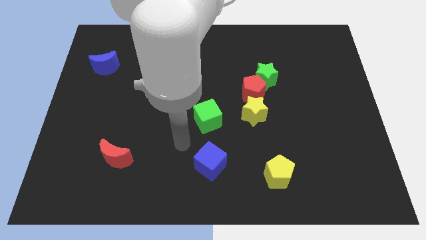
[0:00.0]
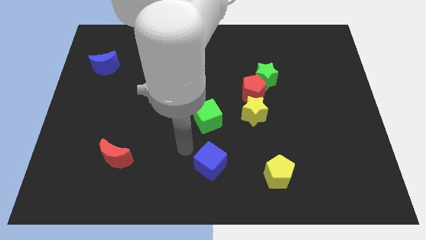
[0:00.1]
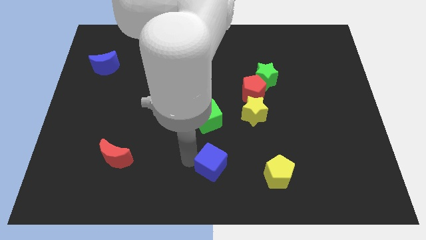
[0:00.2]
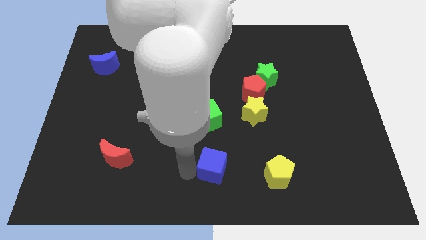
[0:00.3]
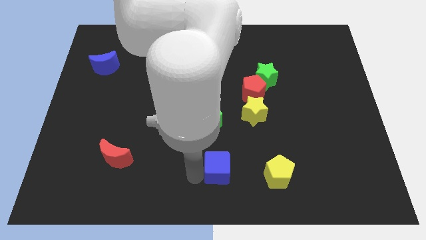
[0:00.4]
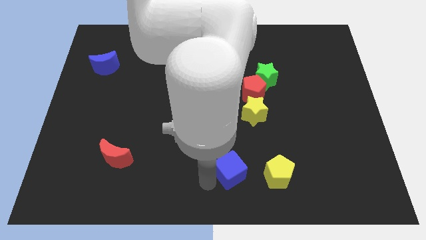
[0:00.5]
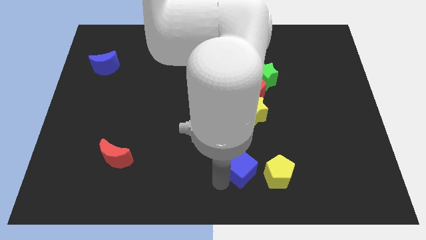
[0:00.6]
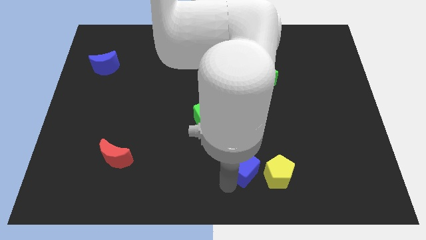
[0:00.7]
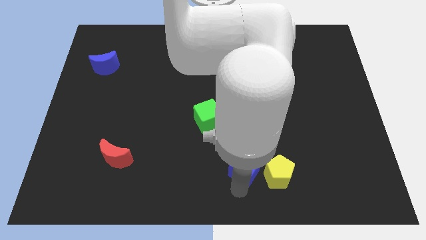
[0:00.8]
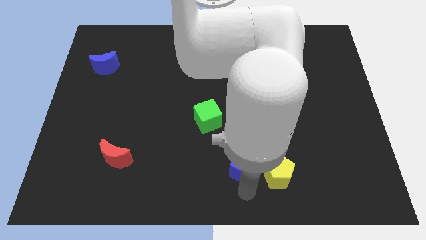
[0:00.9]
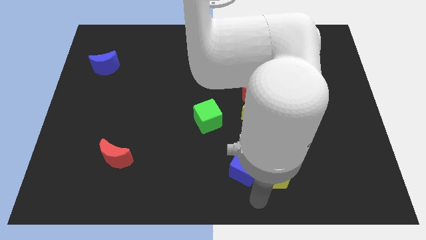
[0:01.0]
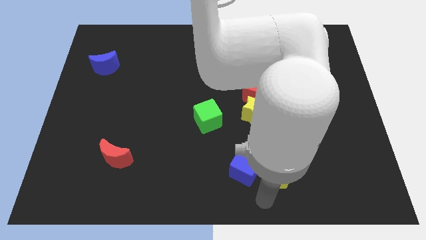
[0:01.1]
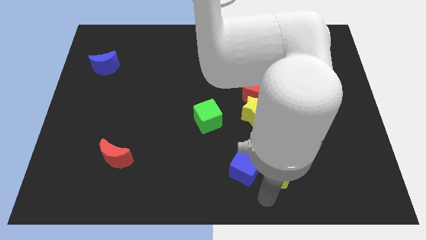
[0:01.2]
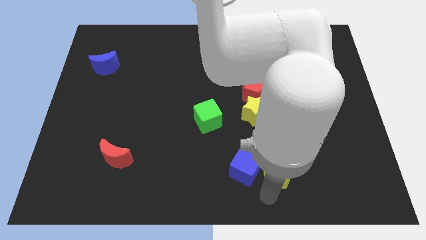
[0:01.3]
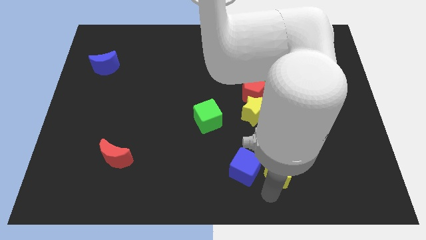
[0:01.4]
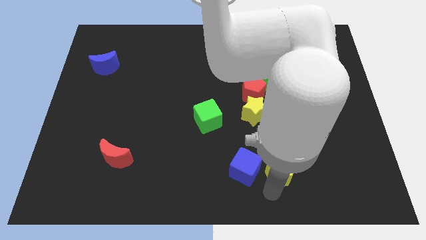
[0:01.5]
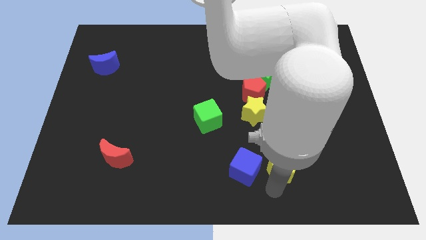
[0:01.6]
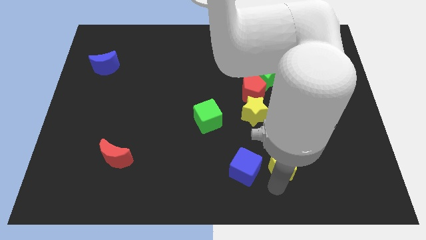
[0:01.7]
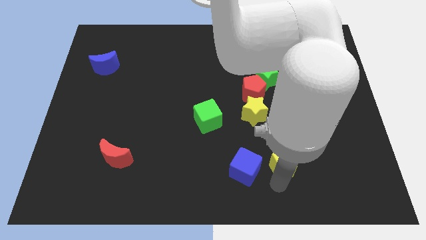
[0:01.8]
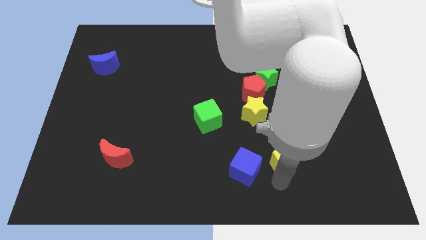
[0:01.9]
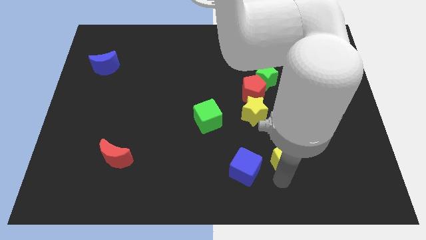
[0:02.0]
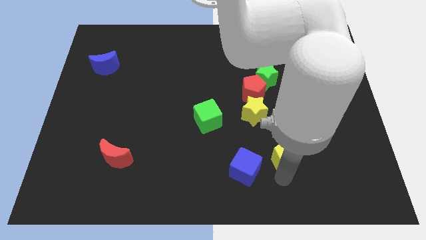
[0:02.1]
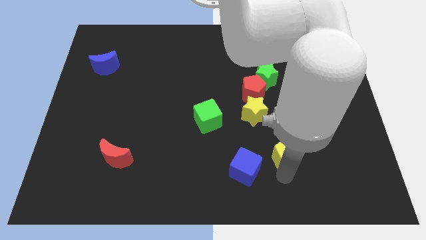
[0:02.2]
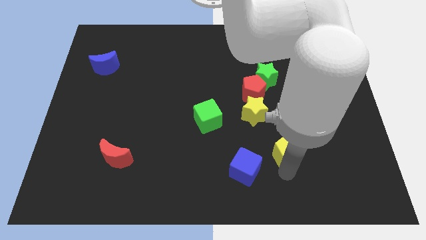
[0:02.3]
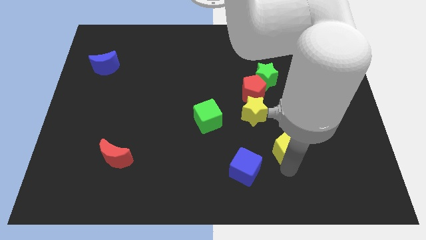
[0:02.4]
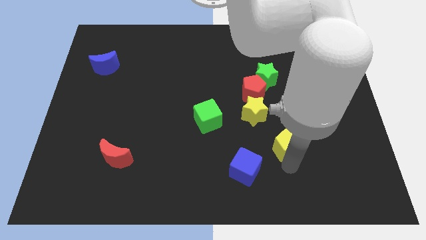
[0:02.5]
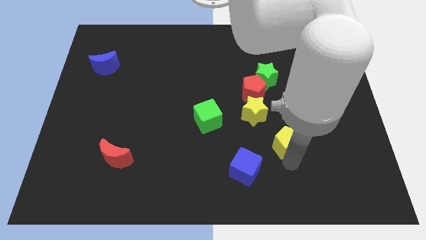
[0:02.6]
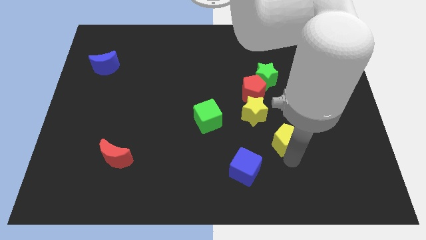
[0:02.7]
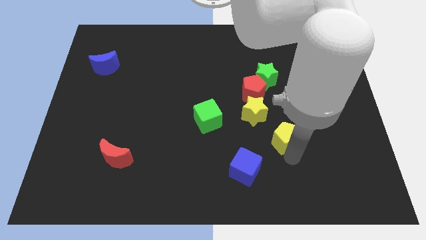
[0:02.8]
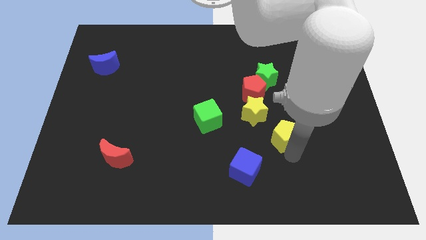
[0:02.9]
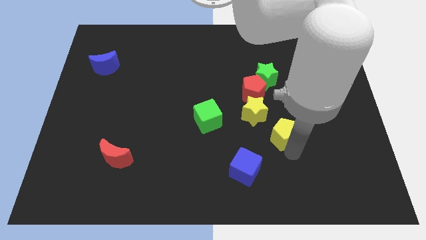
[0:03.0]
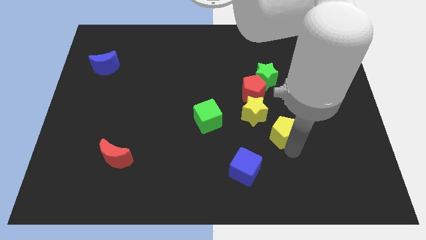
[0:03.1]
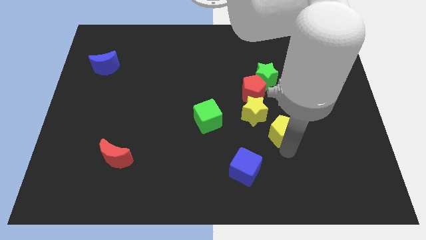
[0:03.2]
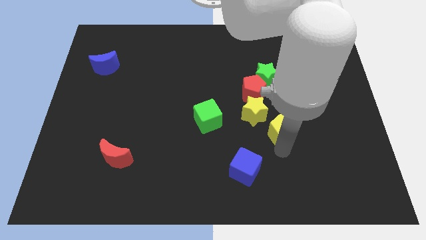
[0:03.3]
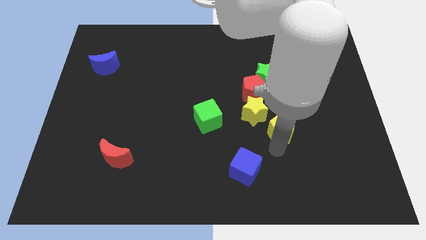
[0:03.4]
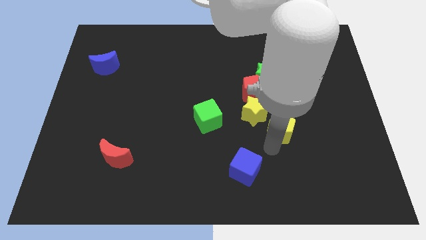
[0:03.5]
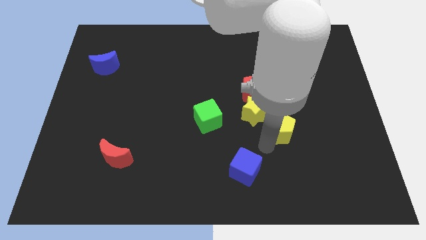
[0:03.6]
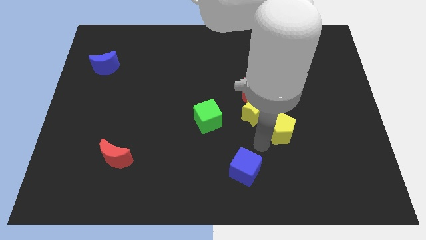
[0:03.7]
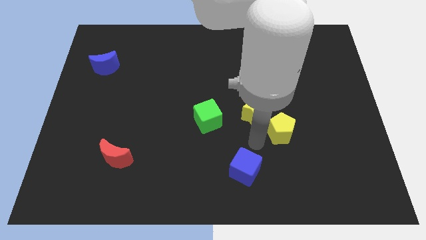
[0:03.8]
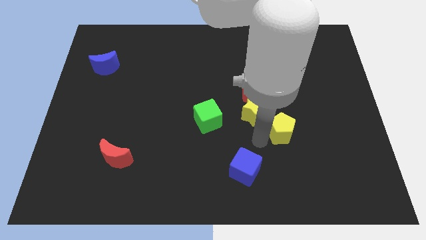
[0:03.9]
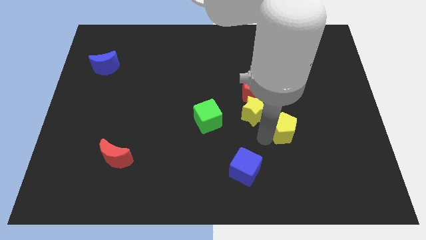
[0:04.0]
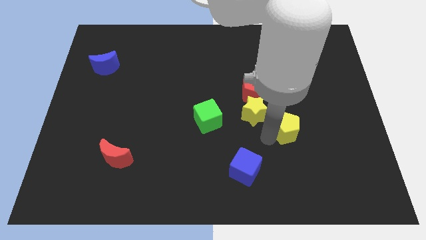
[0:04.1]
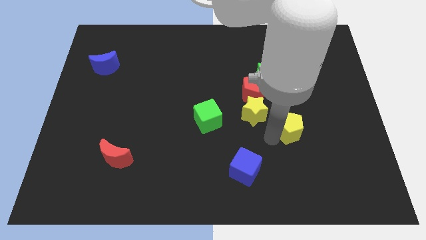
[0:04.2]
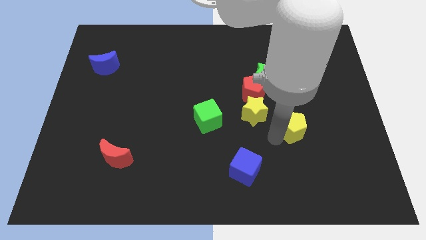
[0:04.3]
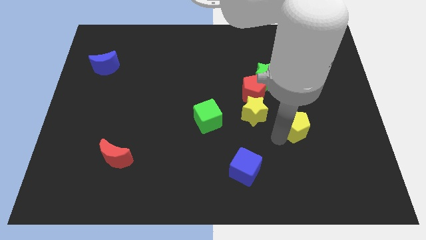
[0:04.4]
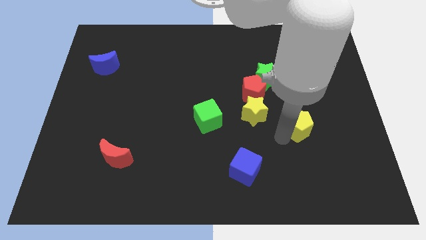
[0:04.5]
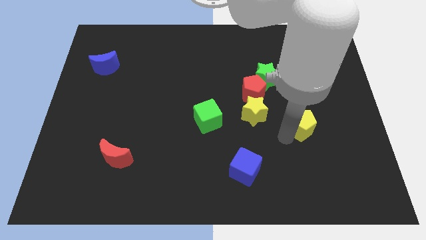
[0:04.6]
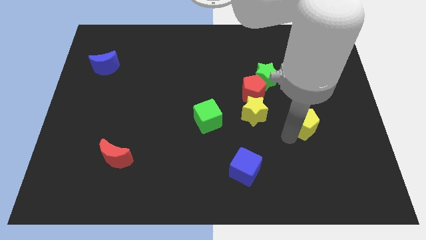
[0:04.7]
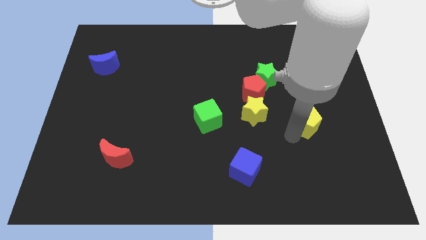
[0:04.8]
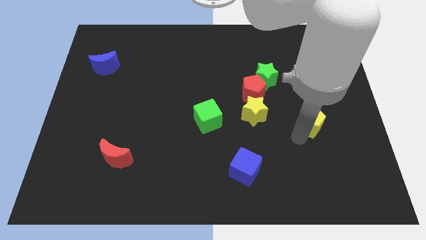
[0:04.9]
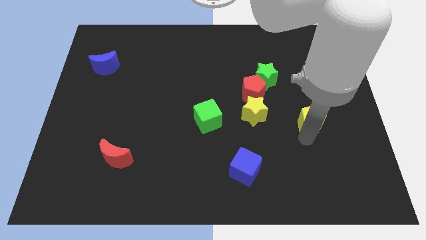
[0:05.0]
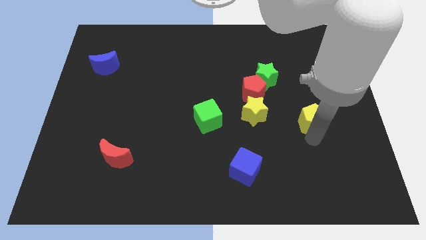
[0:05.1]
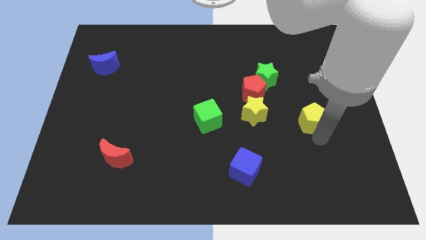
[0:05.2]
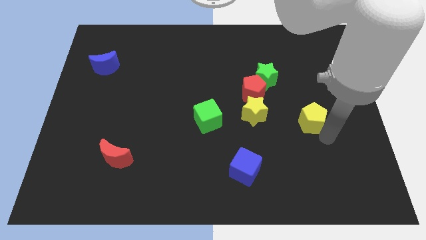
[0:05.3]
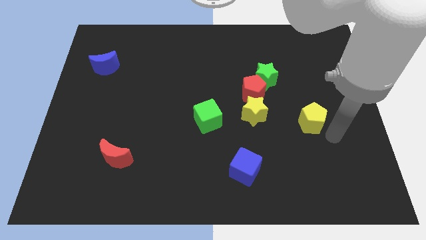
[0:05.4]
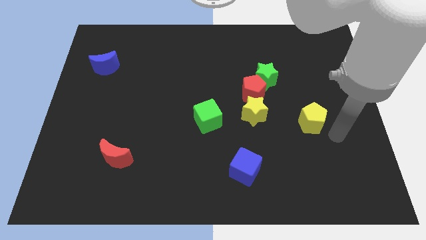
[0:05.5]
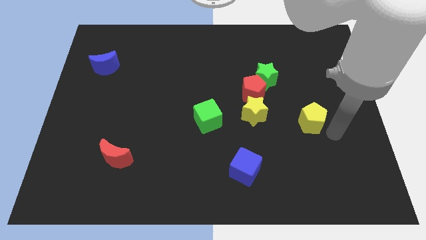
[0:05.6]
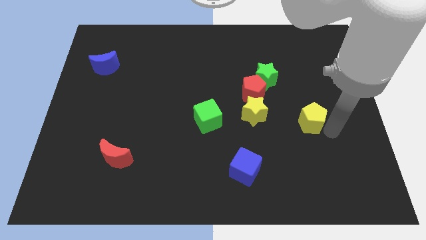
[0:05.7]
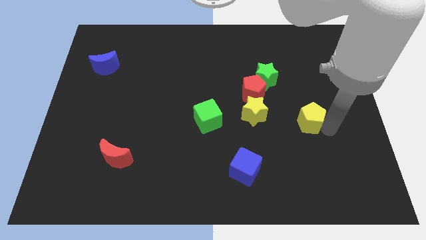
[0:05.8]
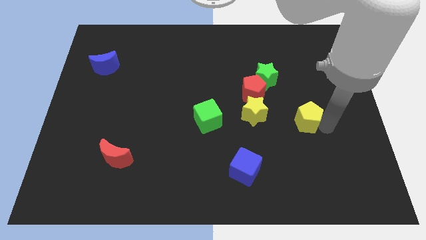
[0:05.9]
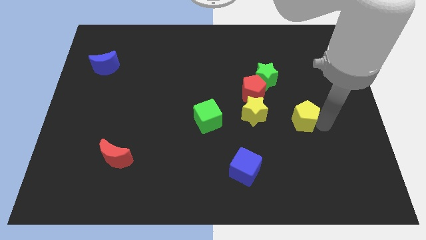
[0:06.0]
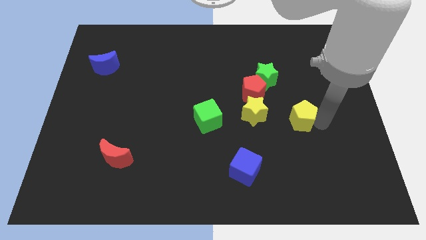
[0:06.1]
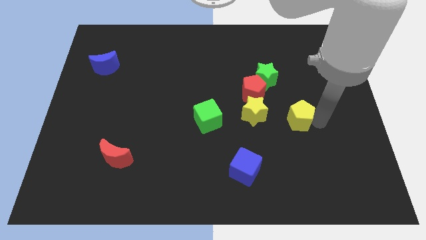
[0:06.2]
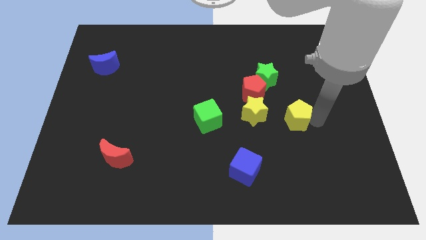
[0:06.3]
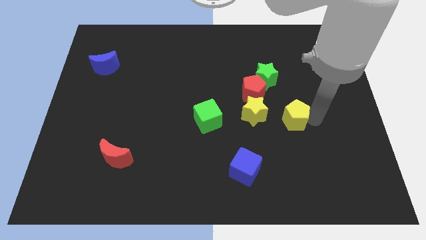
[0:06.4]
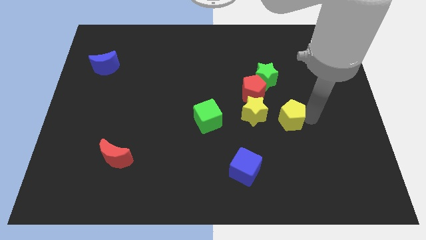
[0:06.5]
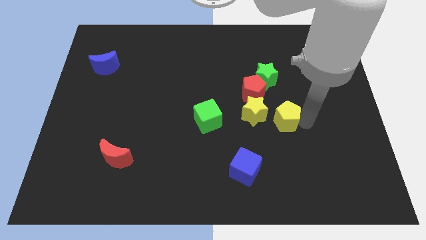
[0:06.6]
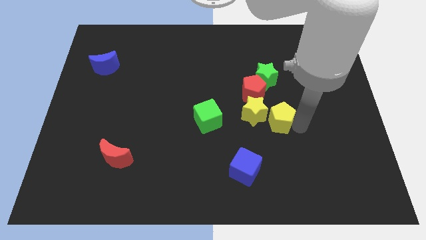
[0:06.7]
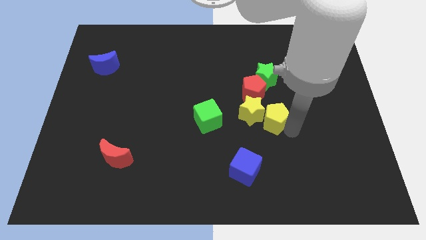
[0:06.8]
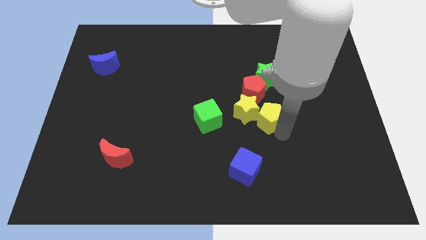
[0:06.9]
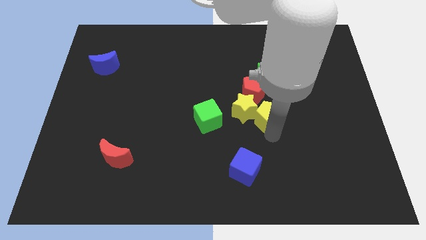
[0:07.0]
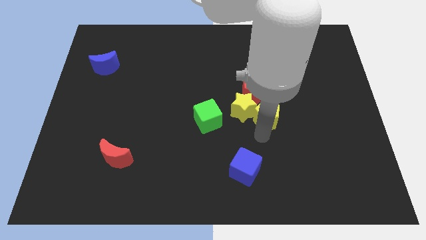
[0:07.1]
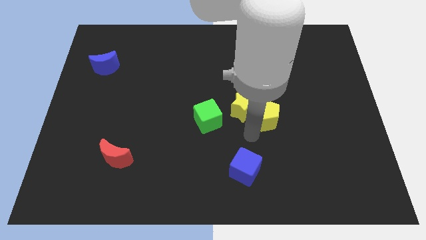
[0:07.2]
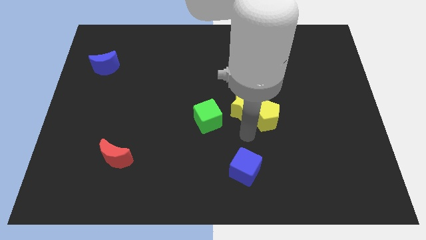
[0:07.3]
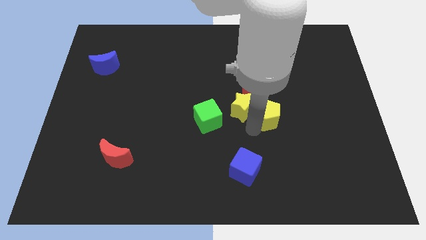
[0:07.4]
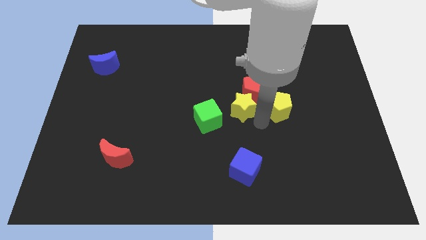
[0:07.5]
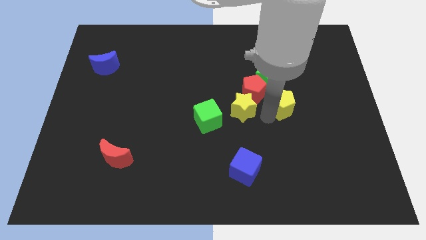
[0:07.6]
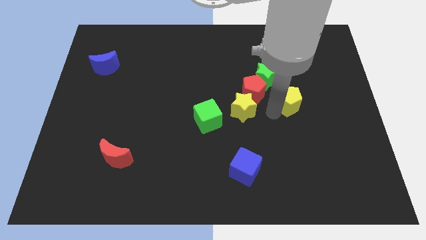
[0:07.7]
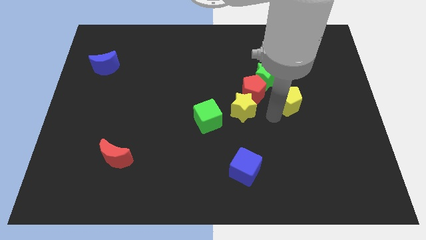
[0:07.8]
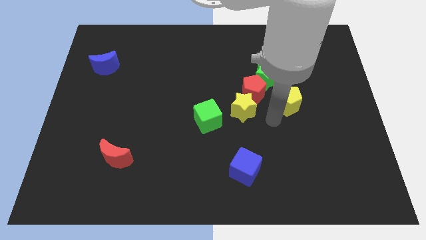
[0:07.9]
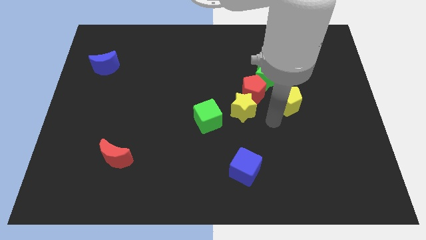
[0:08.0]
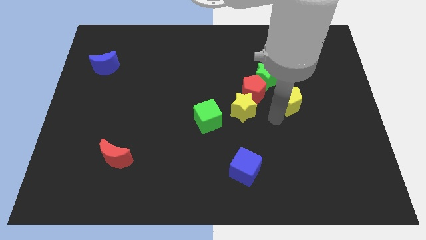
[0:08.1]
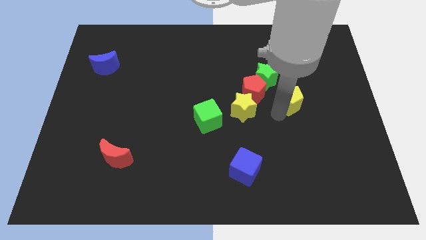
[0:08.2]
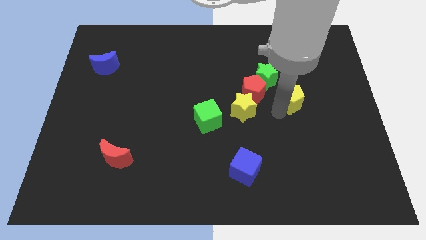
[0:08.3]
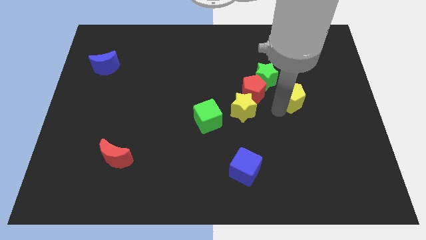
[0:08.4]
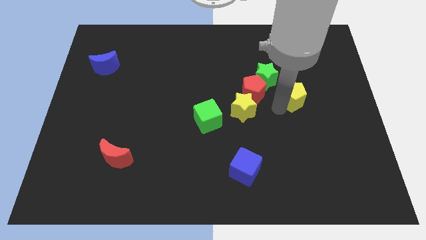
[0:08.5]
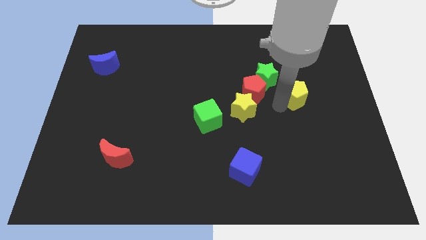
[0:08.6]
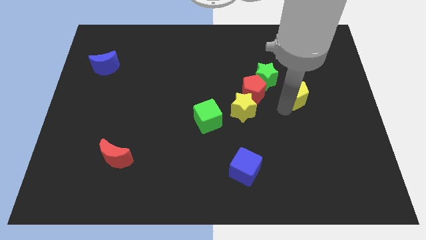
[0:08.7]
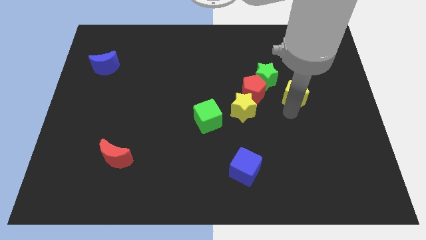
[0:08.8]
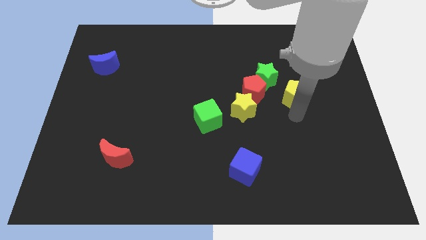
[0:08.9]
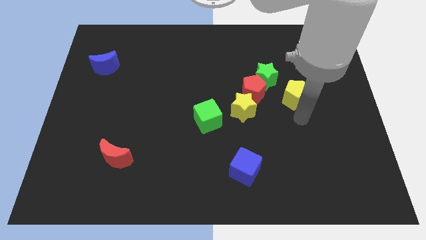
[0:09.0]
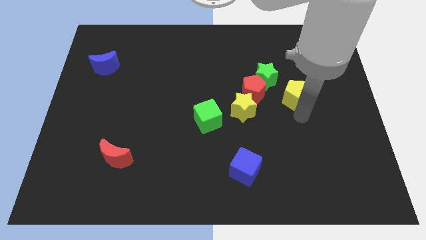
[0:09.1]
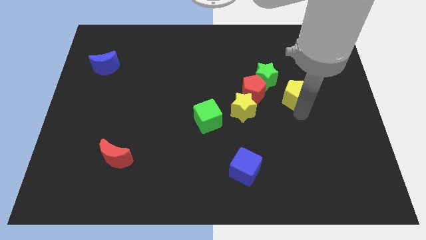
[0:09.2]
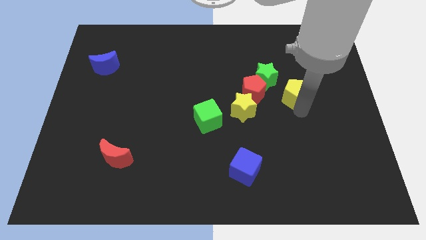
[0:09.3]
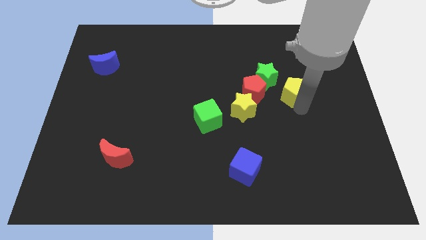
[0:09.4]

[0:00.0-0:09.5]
move the yellow pentagon upwards
